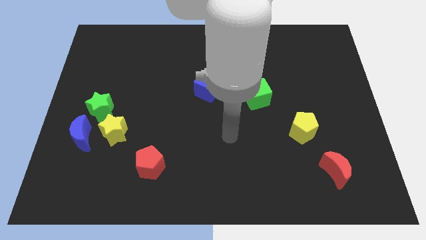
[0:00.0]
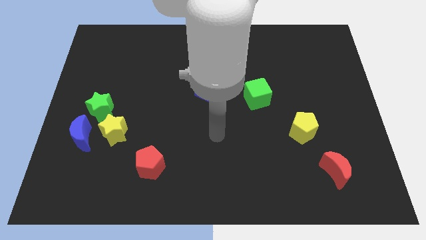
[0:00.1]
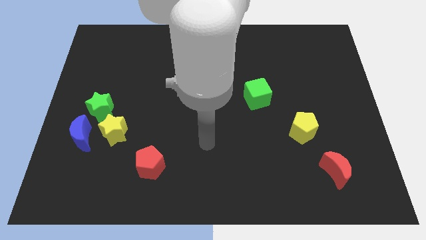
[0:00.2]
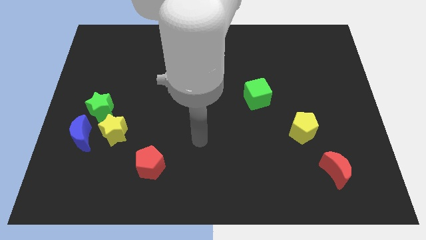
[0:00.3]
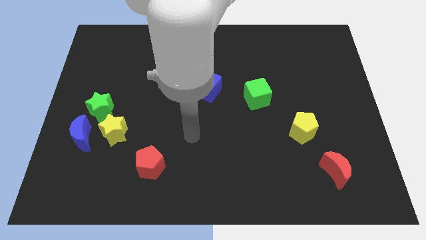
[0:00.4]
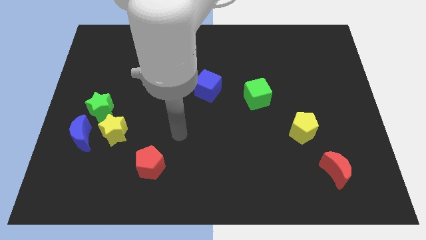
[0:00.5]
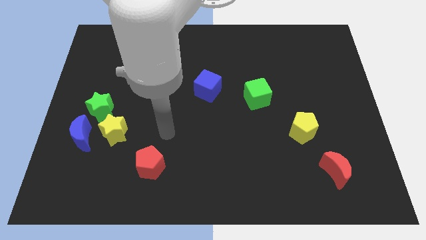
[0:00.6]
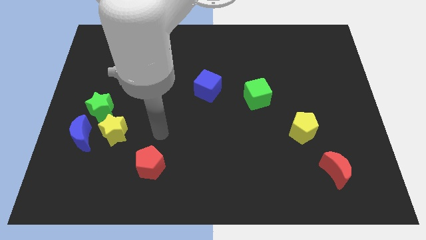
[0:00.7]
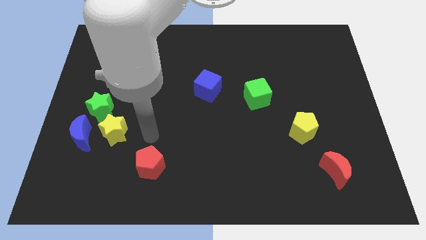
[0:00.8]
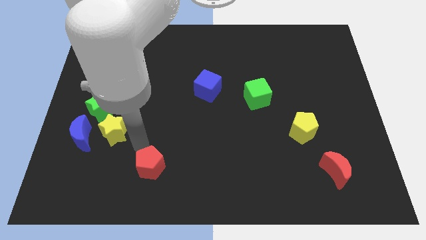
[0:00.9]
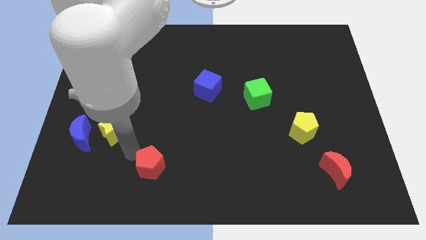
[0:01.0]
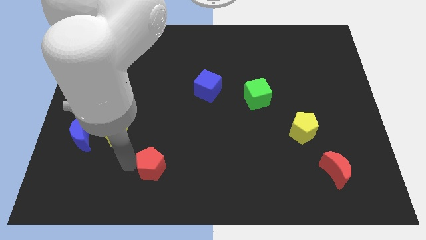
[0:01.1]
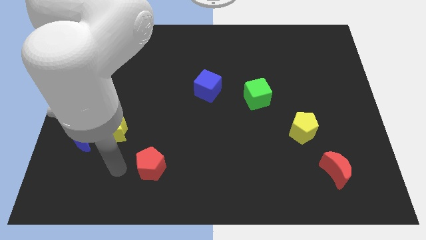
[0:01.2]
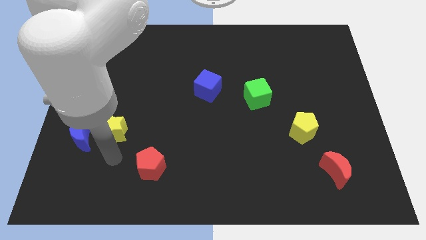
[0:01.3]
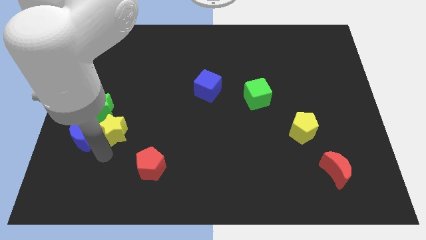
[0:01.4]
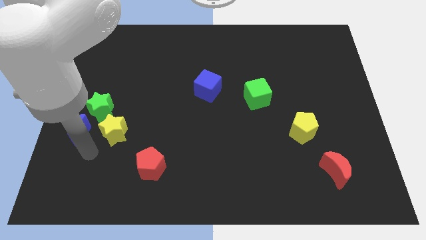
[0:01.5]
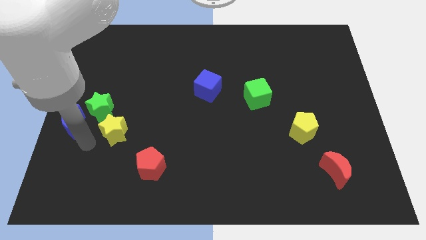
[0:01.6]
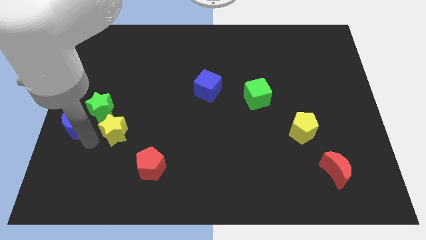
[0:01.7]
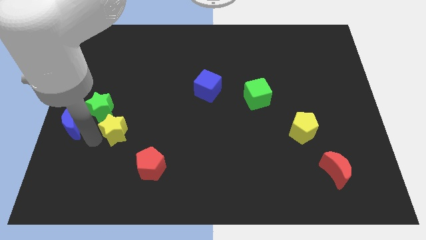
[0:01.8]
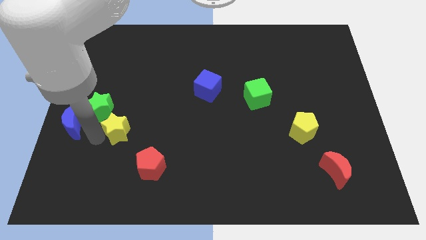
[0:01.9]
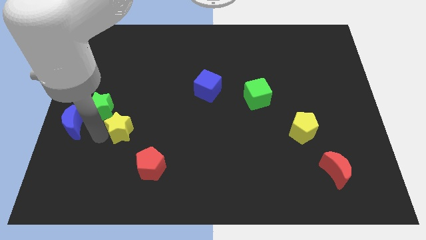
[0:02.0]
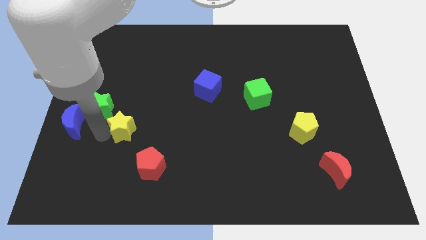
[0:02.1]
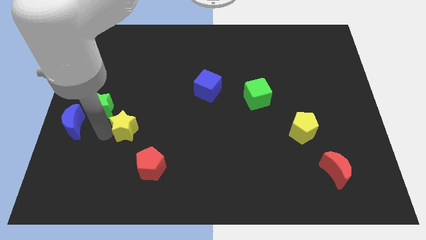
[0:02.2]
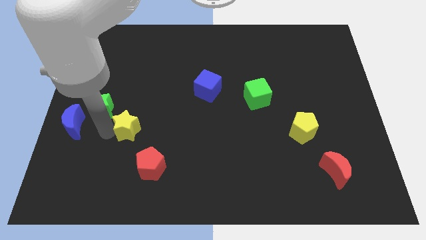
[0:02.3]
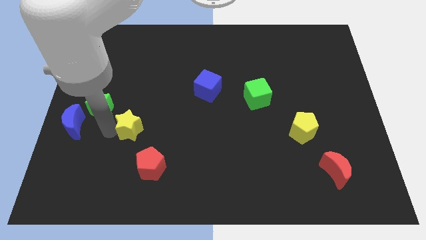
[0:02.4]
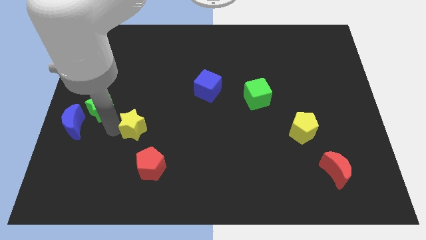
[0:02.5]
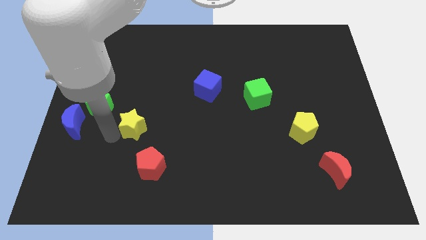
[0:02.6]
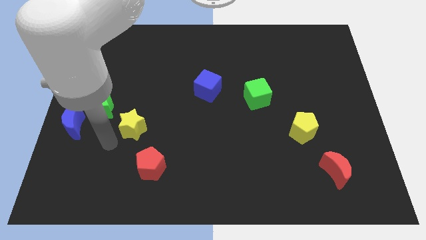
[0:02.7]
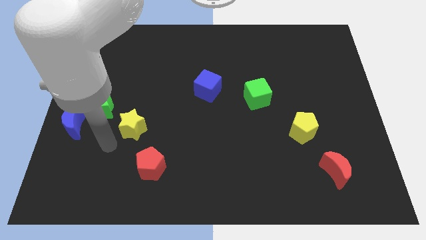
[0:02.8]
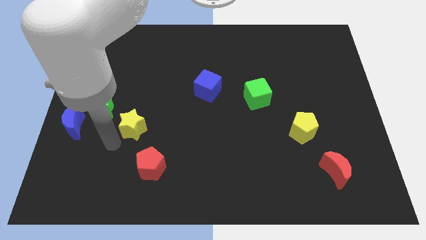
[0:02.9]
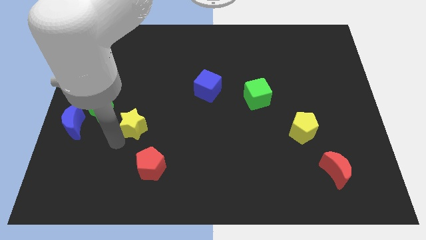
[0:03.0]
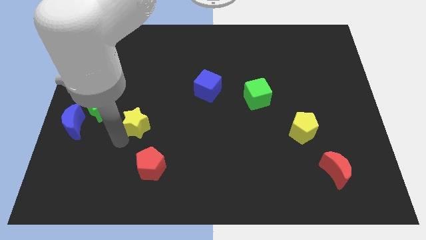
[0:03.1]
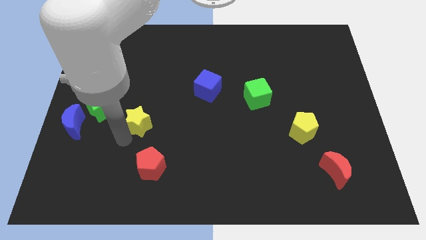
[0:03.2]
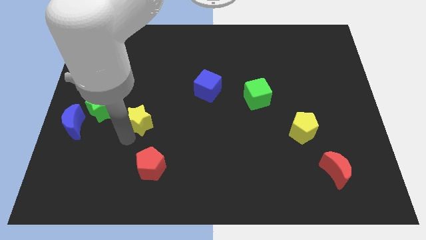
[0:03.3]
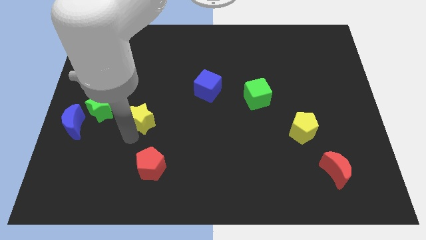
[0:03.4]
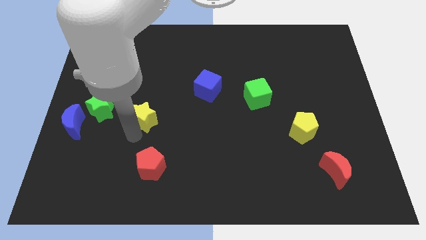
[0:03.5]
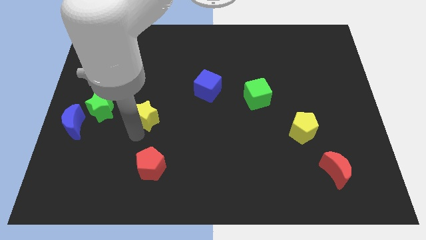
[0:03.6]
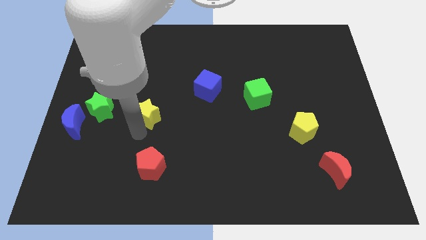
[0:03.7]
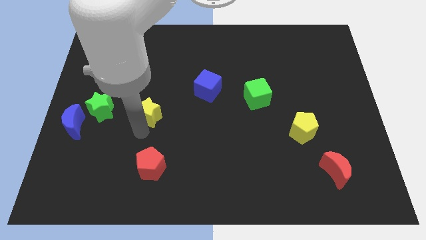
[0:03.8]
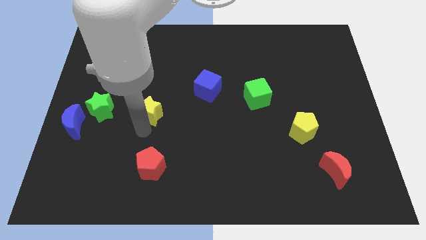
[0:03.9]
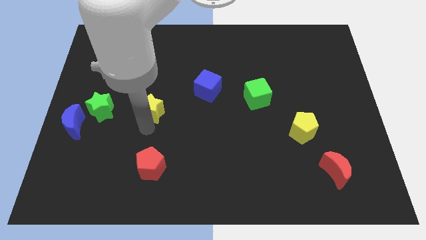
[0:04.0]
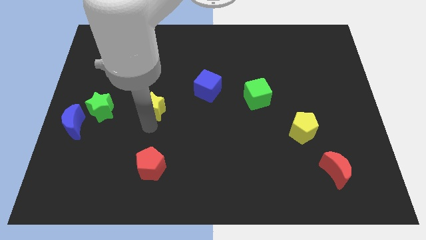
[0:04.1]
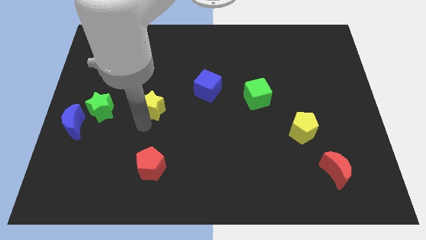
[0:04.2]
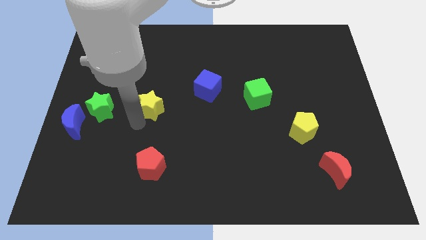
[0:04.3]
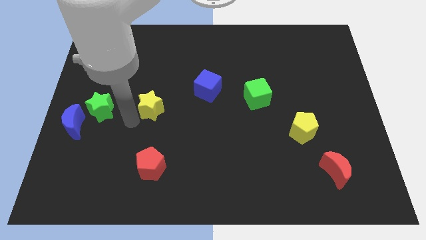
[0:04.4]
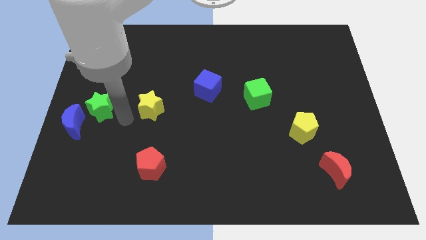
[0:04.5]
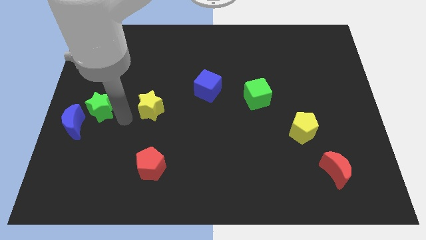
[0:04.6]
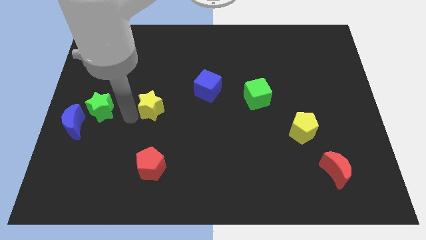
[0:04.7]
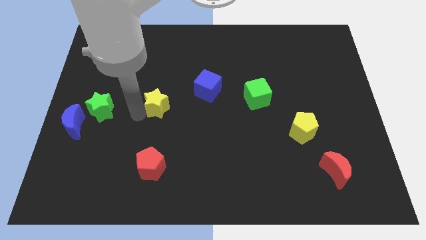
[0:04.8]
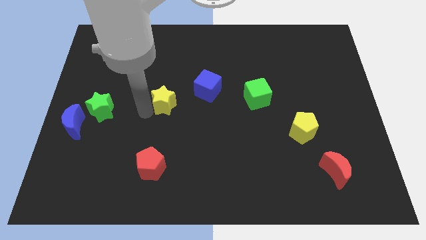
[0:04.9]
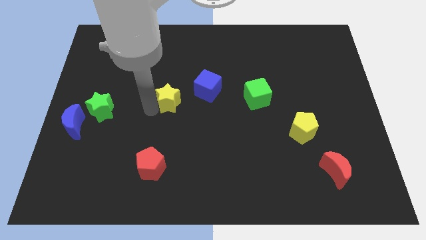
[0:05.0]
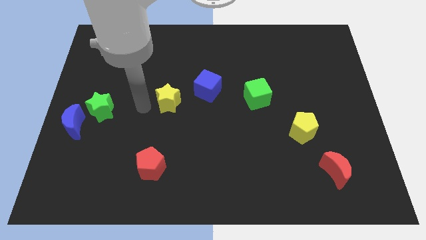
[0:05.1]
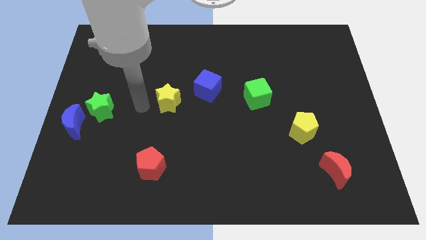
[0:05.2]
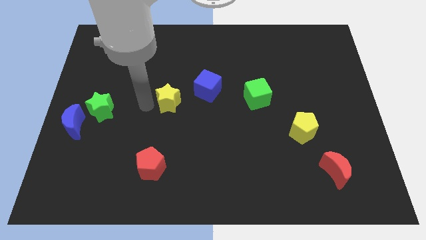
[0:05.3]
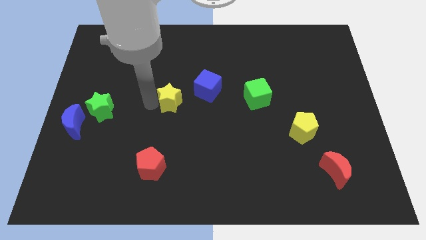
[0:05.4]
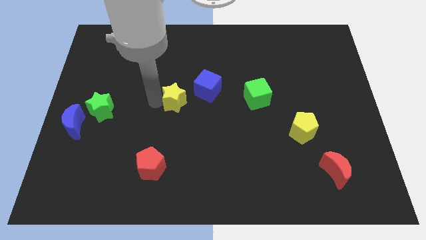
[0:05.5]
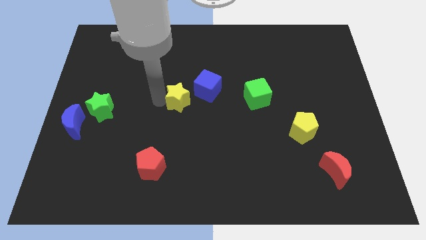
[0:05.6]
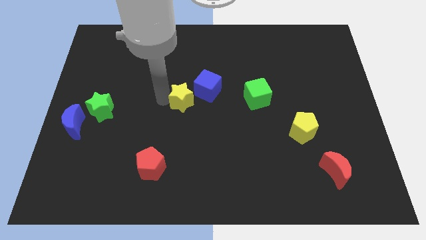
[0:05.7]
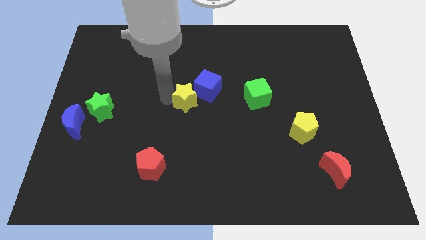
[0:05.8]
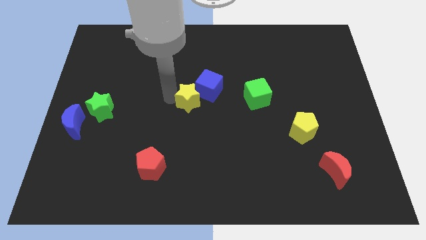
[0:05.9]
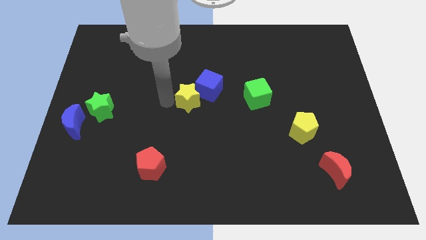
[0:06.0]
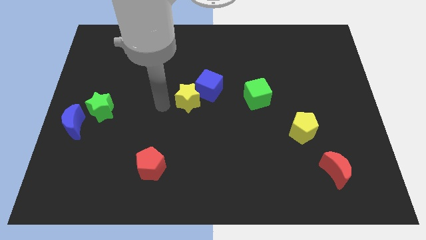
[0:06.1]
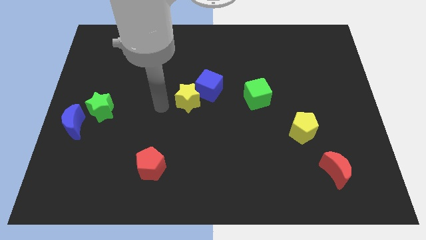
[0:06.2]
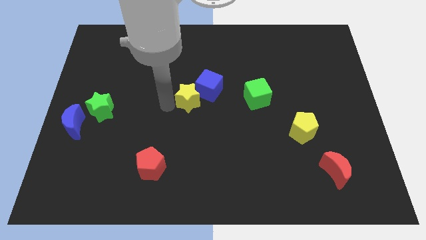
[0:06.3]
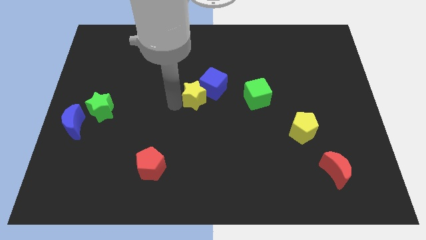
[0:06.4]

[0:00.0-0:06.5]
put the yellow star left of the green cube
